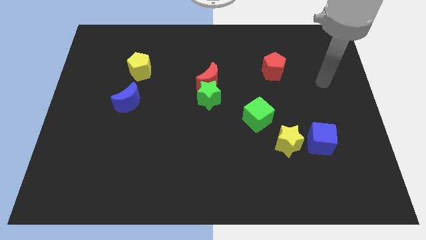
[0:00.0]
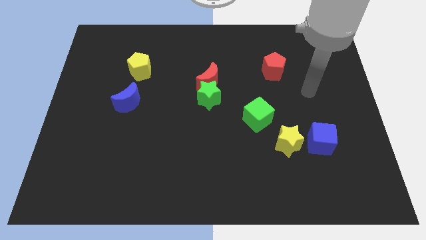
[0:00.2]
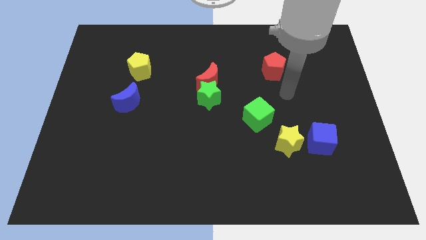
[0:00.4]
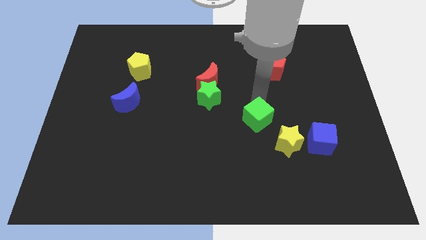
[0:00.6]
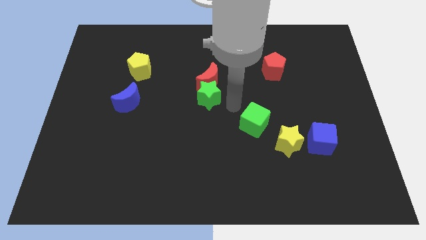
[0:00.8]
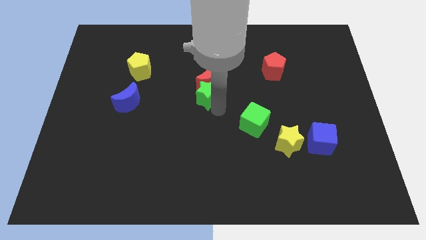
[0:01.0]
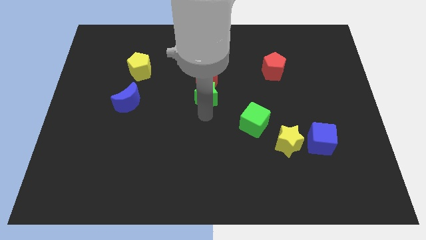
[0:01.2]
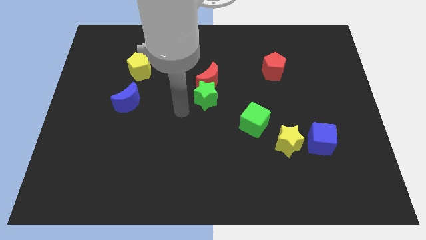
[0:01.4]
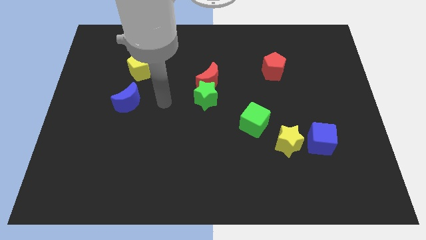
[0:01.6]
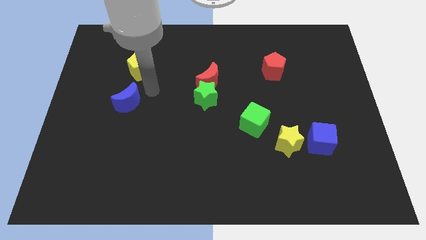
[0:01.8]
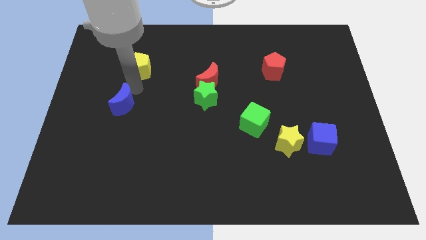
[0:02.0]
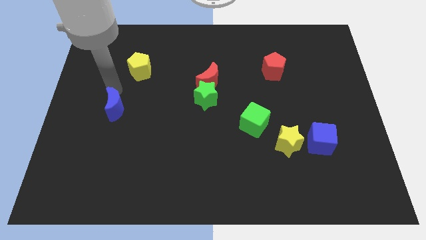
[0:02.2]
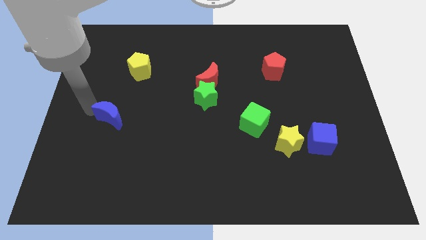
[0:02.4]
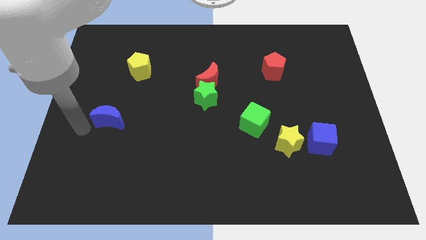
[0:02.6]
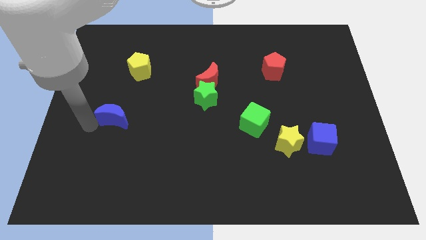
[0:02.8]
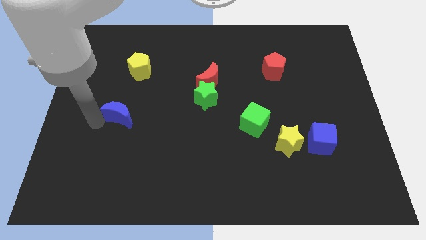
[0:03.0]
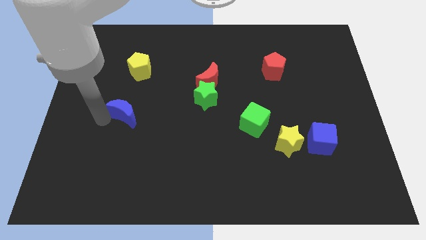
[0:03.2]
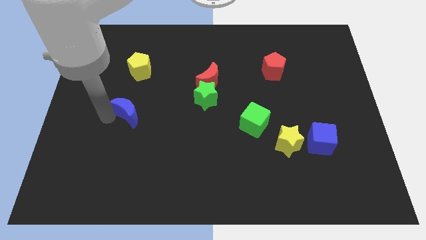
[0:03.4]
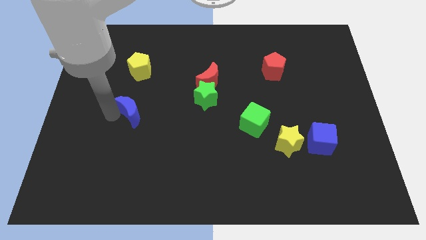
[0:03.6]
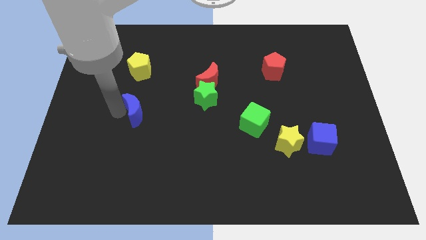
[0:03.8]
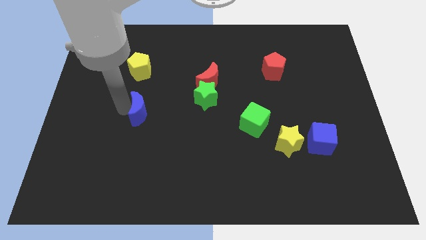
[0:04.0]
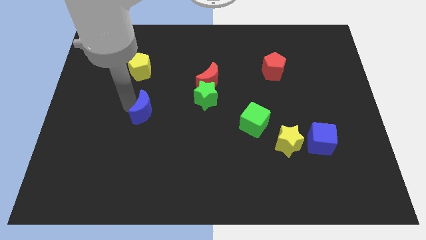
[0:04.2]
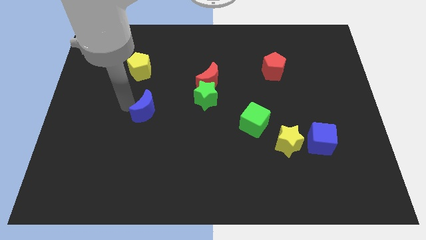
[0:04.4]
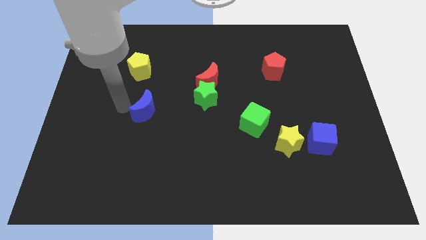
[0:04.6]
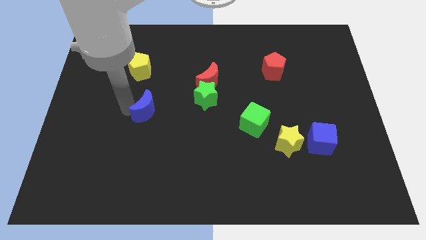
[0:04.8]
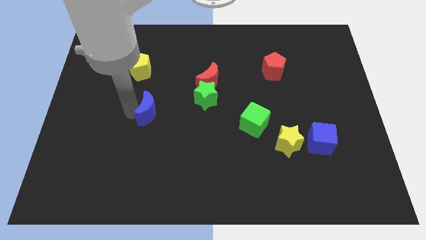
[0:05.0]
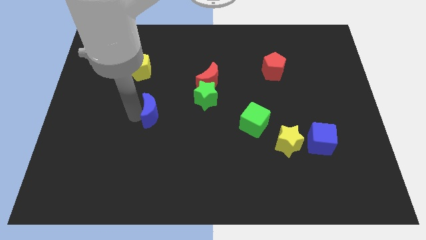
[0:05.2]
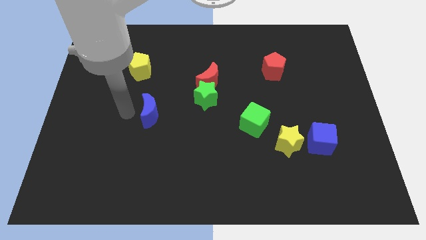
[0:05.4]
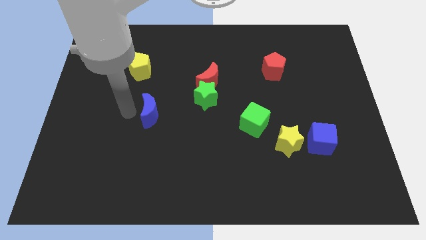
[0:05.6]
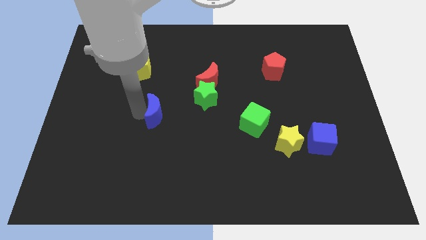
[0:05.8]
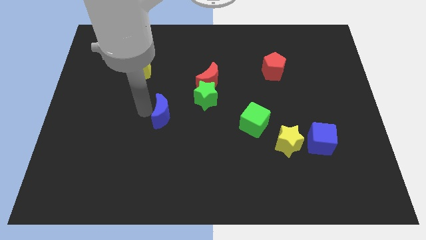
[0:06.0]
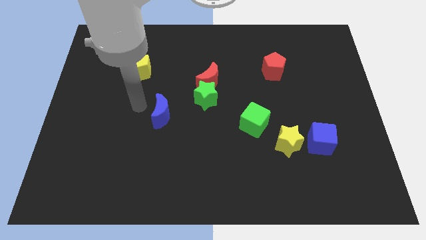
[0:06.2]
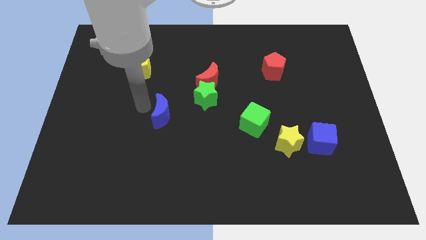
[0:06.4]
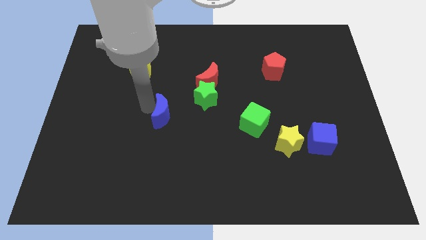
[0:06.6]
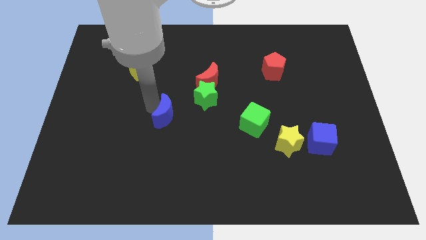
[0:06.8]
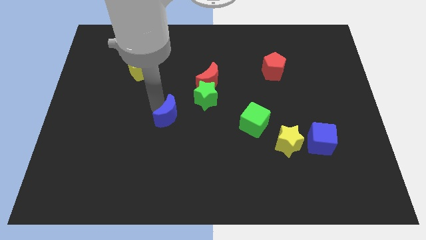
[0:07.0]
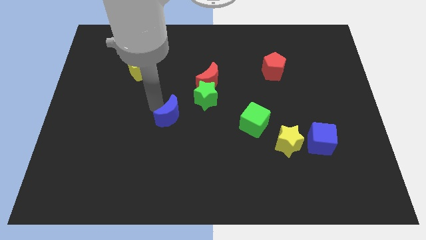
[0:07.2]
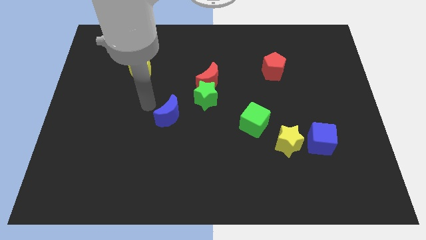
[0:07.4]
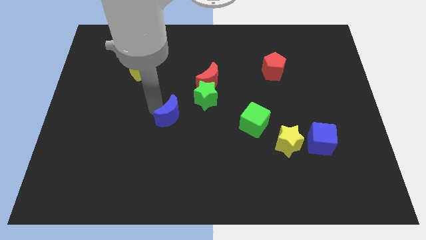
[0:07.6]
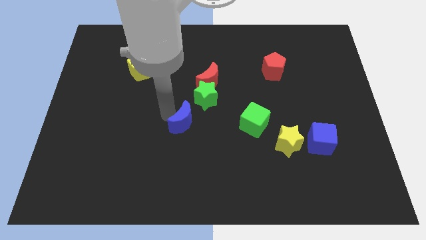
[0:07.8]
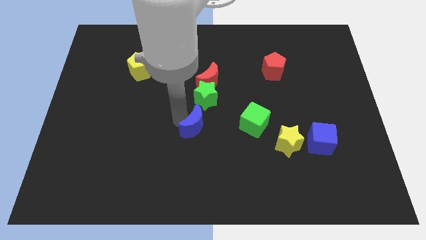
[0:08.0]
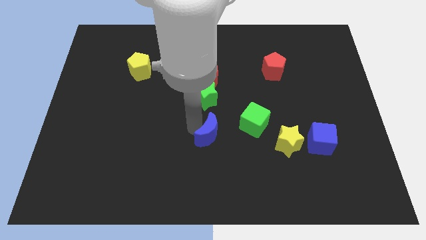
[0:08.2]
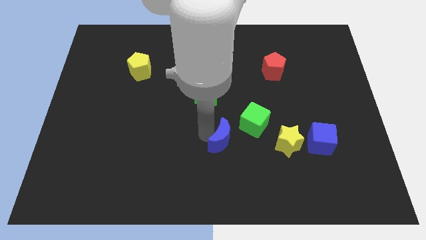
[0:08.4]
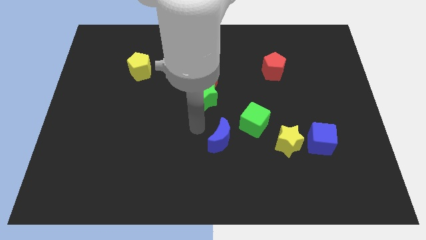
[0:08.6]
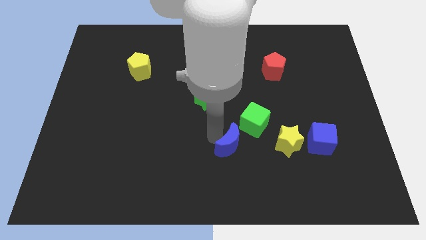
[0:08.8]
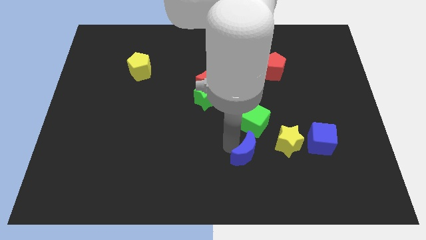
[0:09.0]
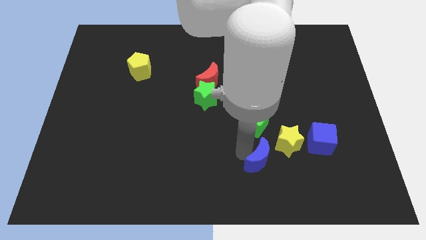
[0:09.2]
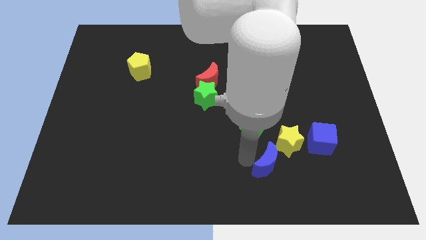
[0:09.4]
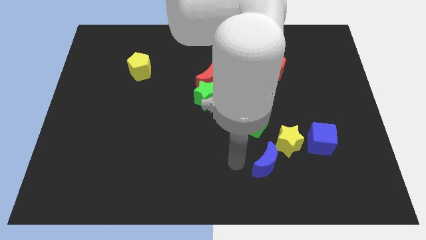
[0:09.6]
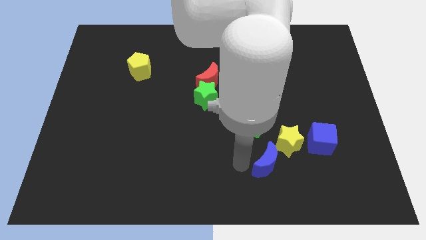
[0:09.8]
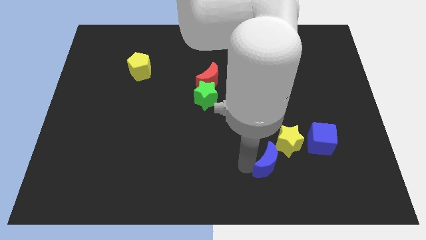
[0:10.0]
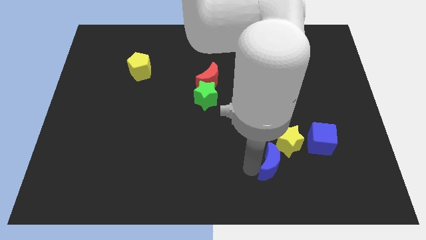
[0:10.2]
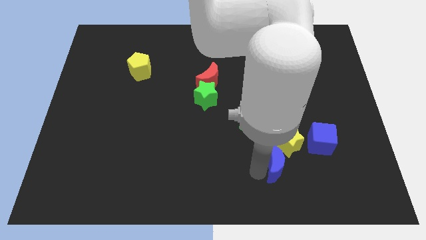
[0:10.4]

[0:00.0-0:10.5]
put the blue moon to the bottom left side of the blue cube

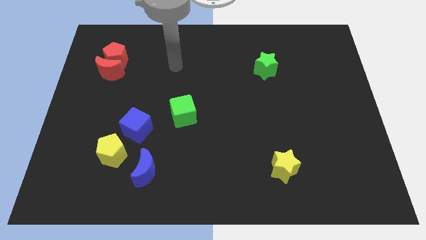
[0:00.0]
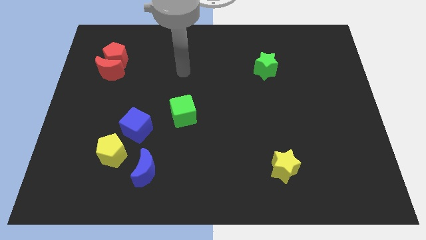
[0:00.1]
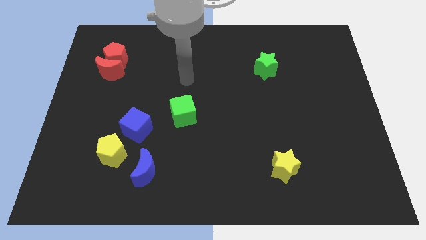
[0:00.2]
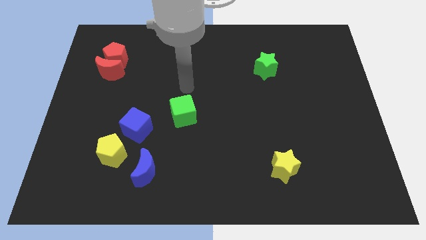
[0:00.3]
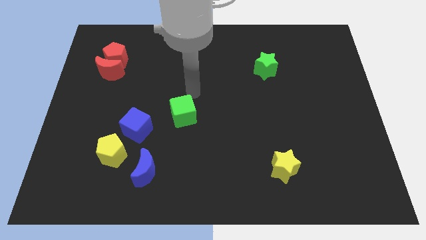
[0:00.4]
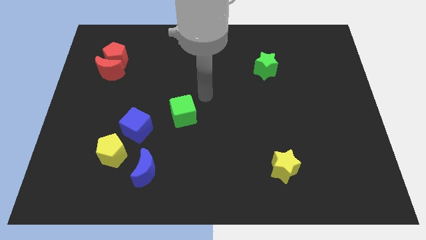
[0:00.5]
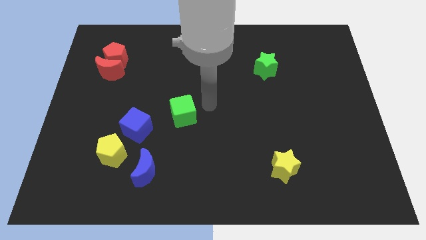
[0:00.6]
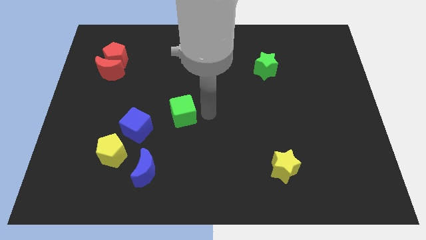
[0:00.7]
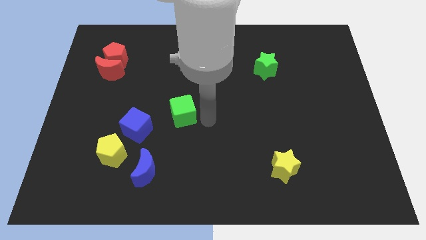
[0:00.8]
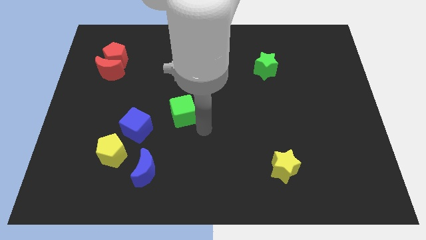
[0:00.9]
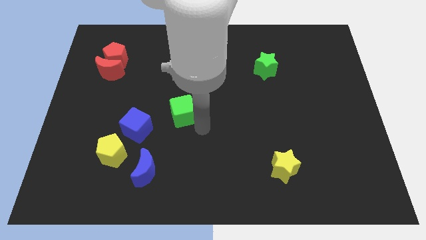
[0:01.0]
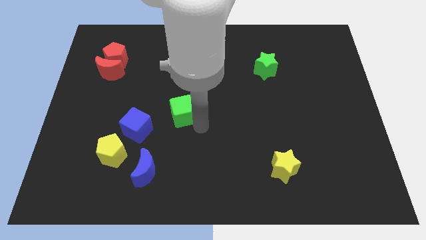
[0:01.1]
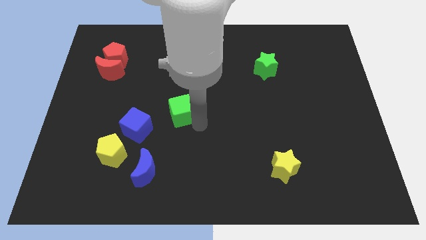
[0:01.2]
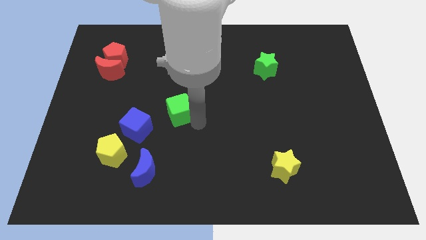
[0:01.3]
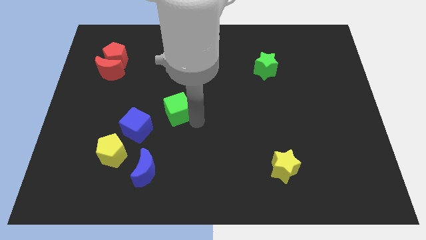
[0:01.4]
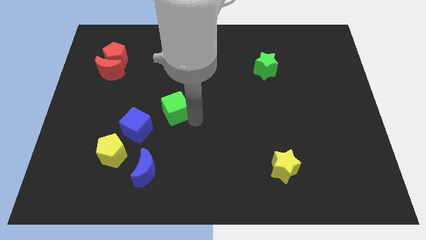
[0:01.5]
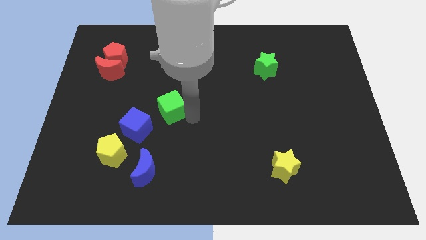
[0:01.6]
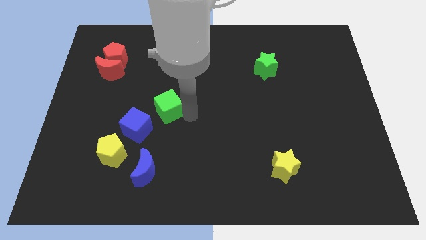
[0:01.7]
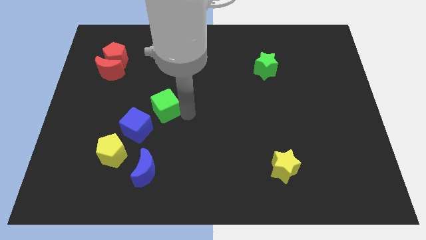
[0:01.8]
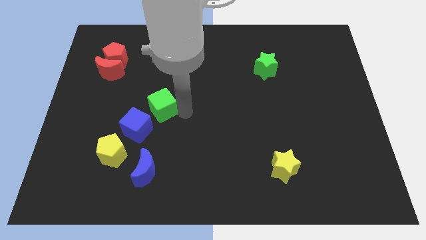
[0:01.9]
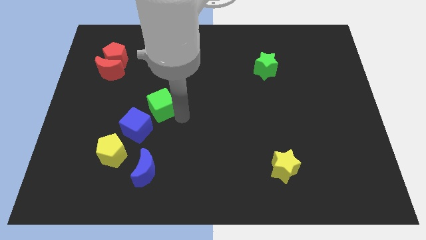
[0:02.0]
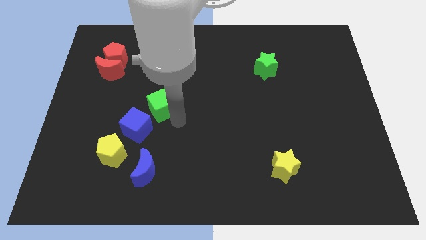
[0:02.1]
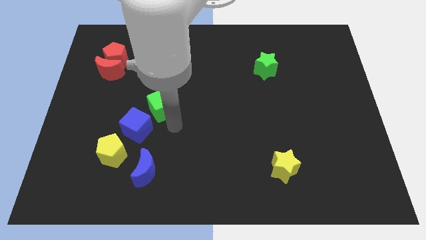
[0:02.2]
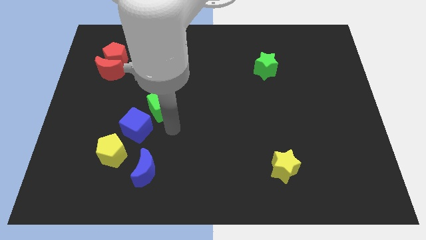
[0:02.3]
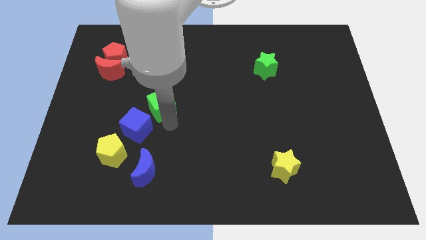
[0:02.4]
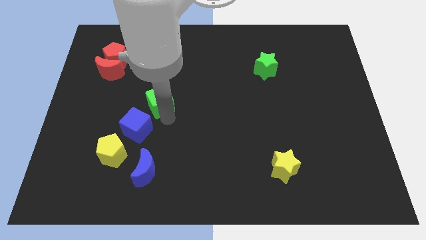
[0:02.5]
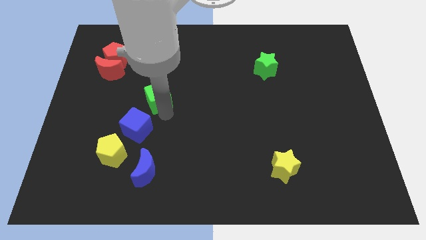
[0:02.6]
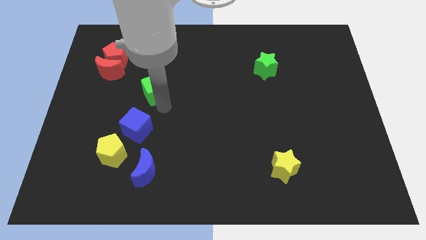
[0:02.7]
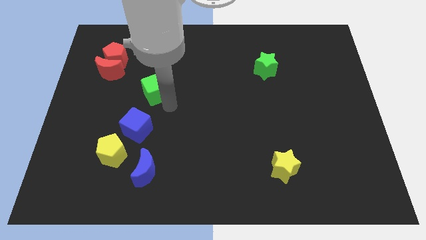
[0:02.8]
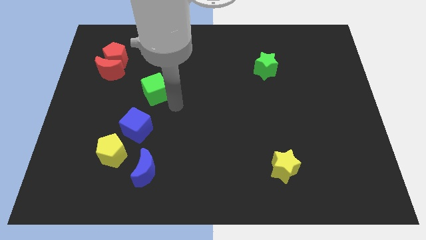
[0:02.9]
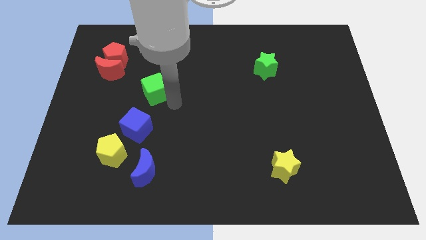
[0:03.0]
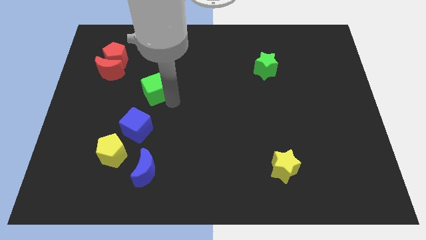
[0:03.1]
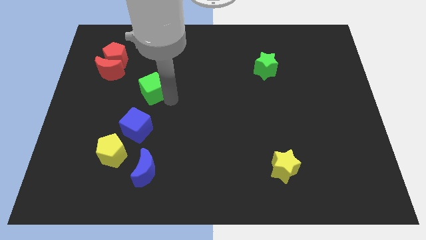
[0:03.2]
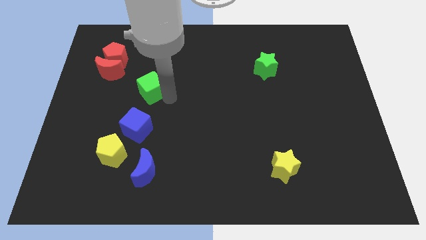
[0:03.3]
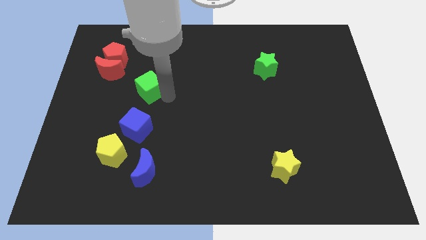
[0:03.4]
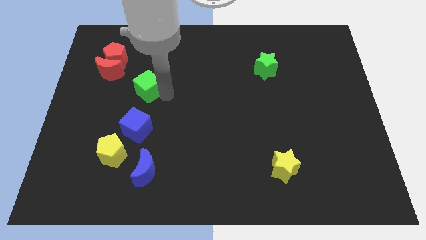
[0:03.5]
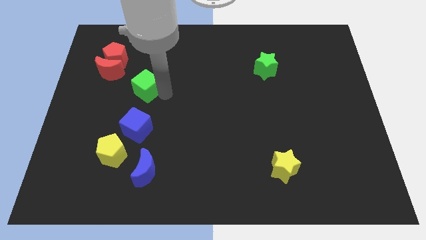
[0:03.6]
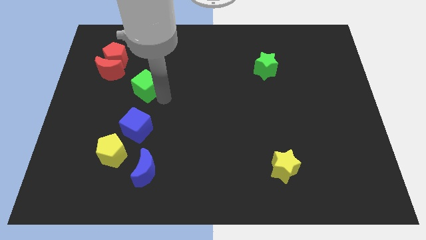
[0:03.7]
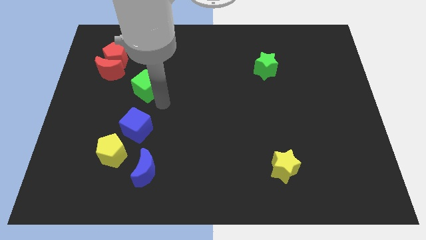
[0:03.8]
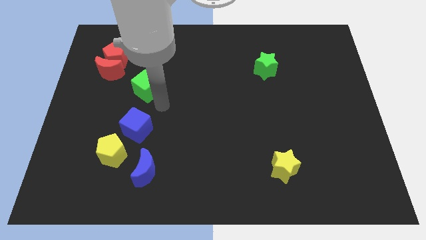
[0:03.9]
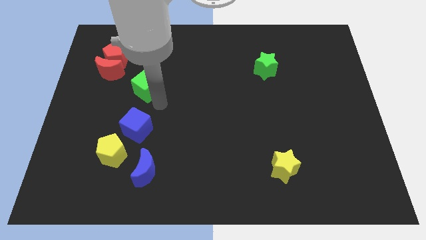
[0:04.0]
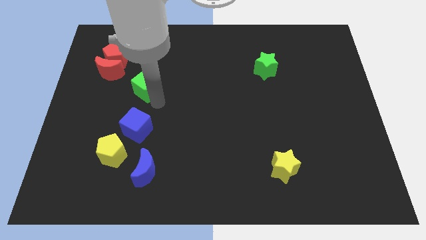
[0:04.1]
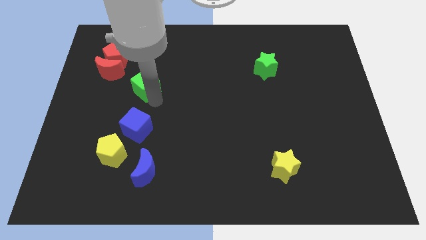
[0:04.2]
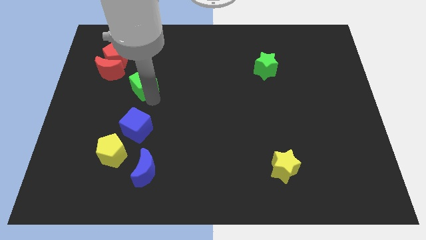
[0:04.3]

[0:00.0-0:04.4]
slide the green cube to the bottom right of the red pentagon
